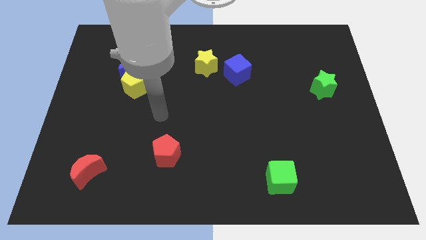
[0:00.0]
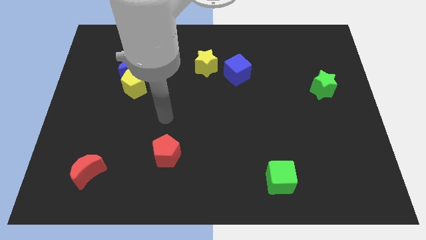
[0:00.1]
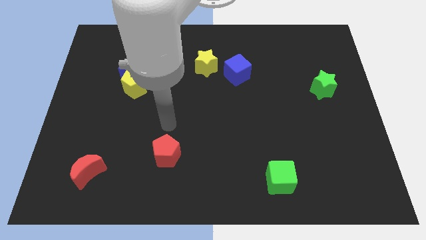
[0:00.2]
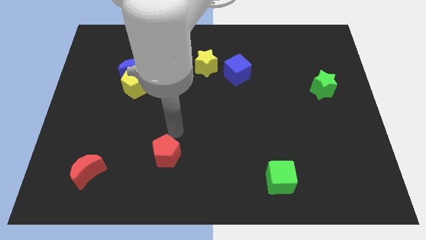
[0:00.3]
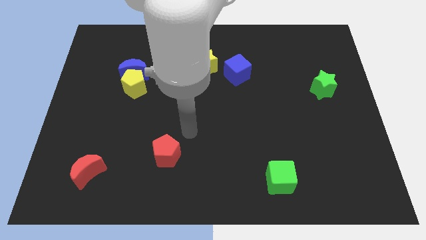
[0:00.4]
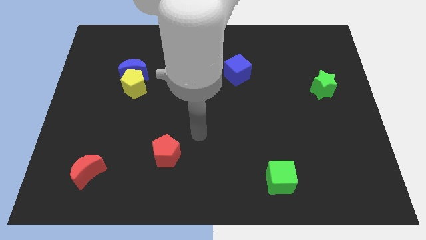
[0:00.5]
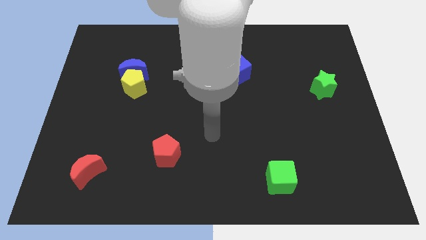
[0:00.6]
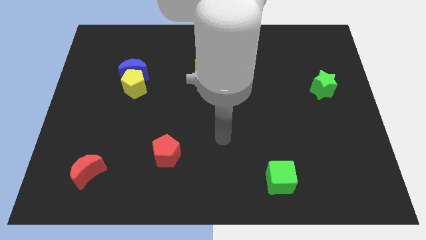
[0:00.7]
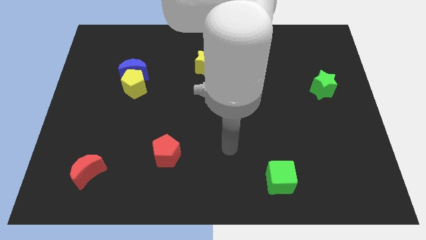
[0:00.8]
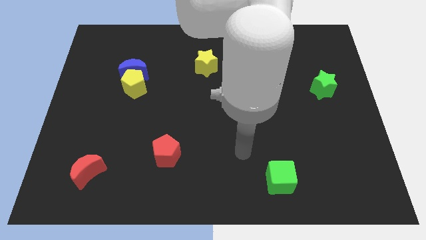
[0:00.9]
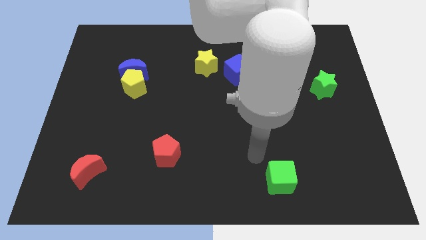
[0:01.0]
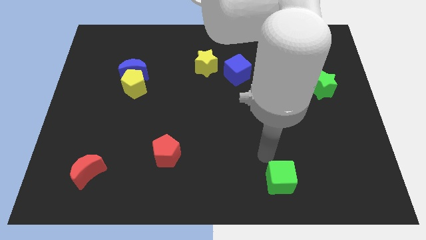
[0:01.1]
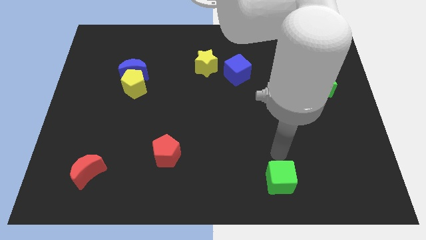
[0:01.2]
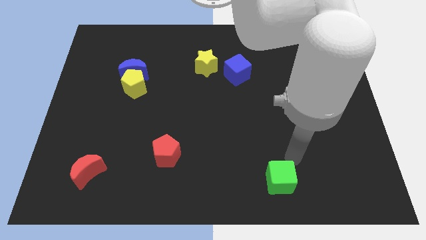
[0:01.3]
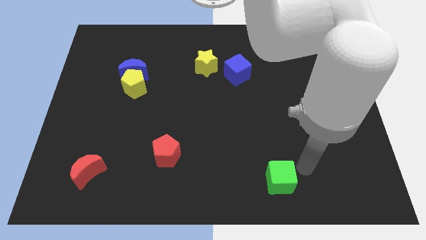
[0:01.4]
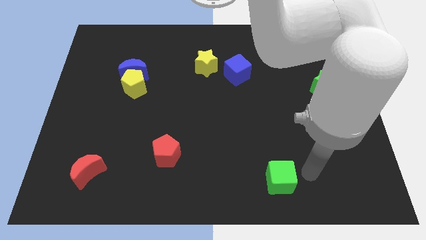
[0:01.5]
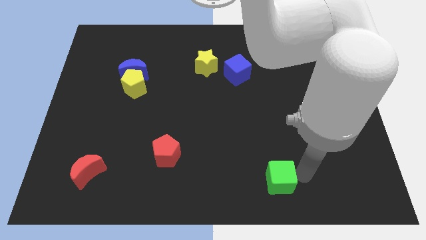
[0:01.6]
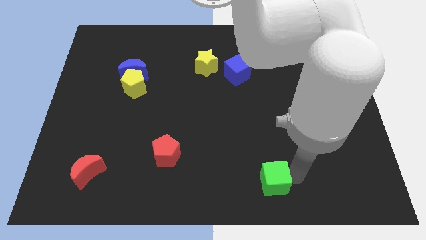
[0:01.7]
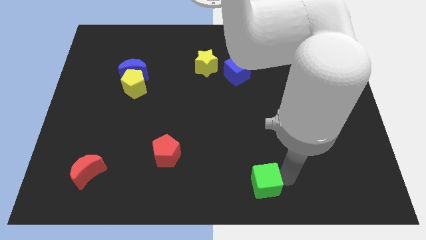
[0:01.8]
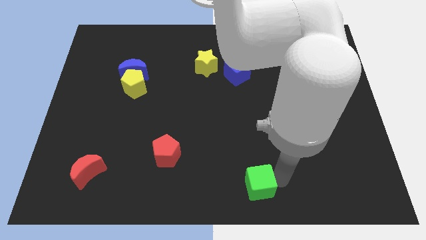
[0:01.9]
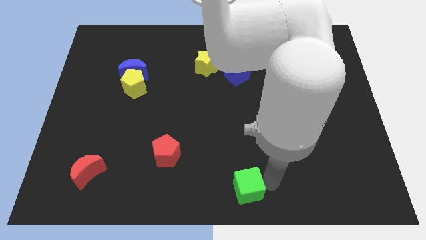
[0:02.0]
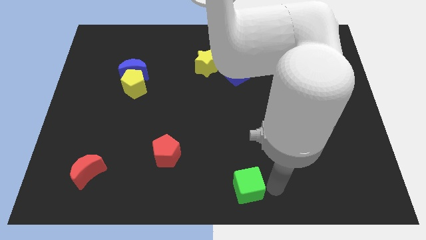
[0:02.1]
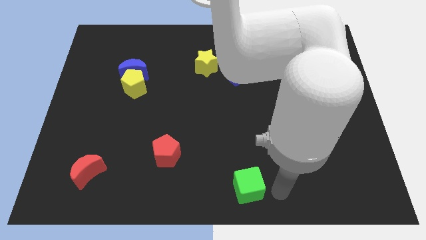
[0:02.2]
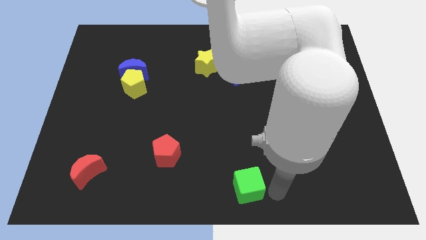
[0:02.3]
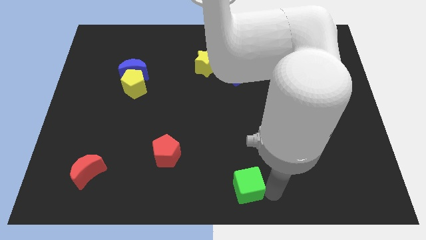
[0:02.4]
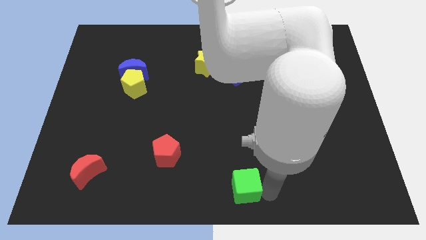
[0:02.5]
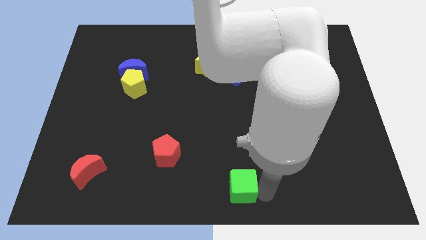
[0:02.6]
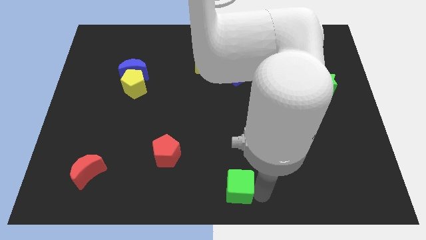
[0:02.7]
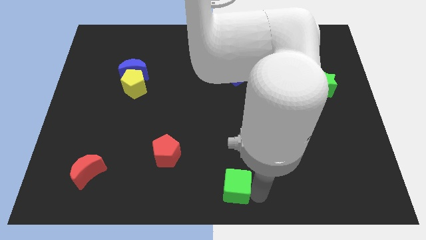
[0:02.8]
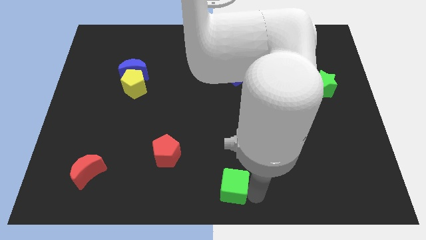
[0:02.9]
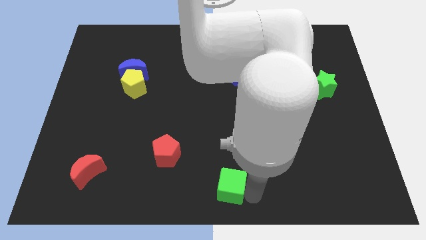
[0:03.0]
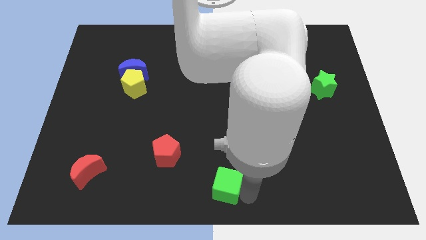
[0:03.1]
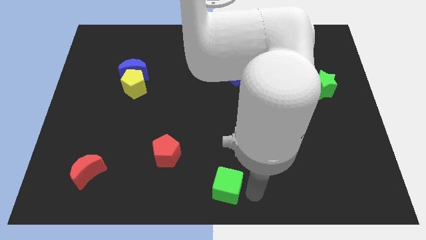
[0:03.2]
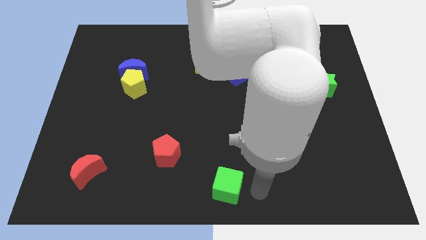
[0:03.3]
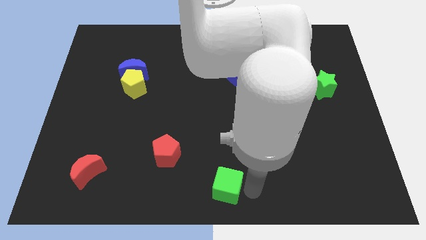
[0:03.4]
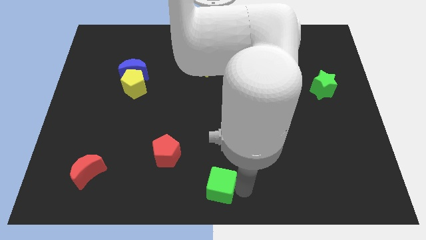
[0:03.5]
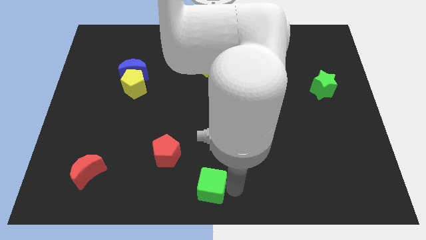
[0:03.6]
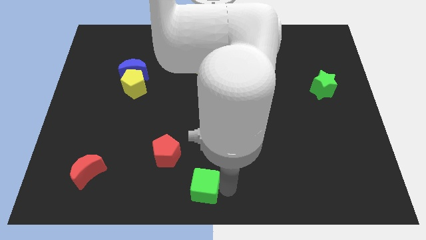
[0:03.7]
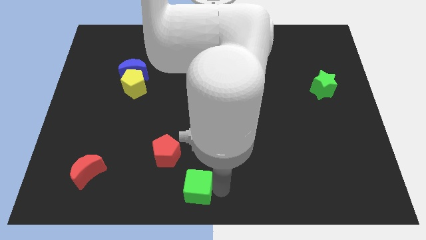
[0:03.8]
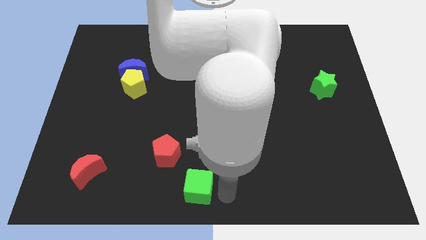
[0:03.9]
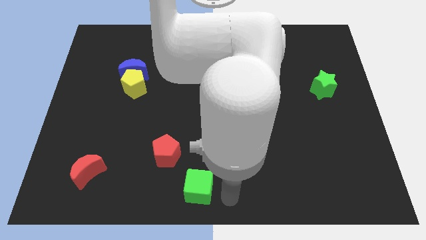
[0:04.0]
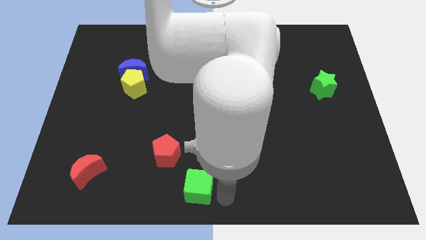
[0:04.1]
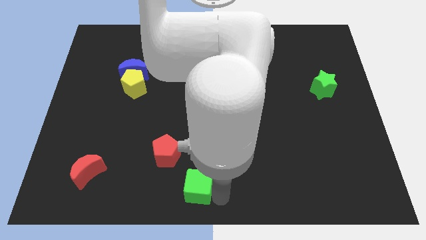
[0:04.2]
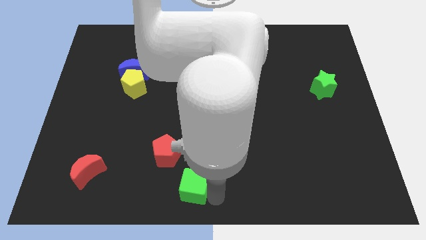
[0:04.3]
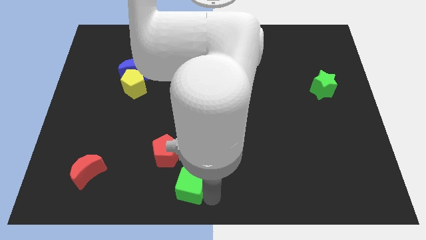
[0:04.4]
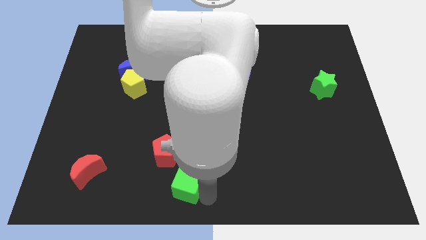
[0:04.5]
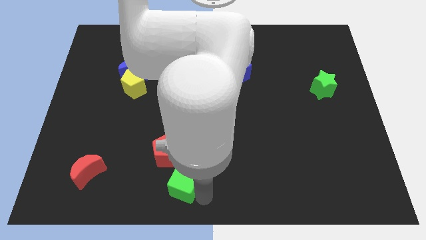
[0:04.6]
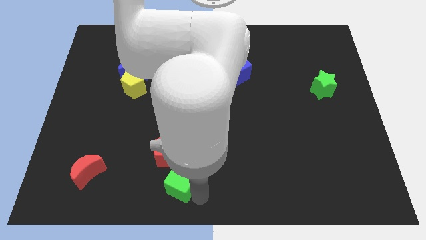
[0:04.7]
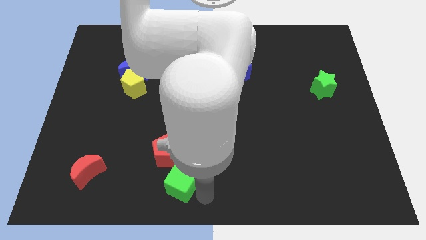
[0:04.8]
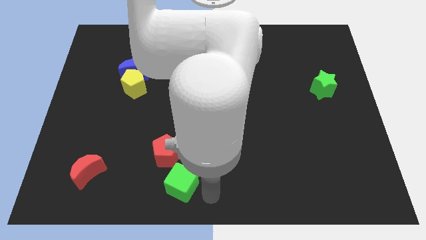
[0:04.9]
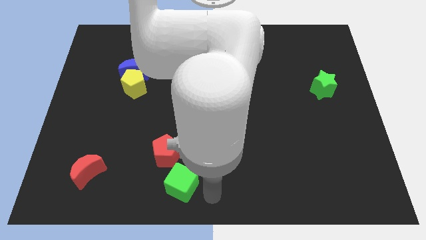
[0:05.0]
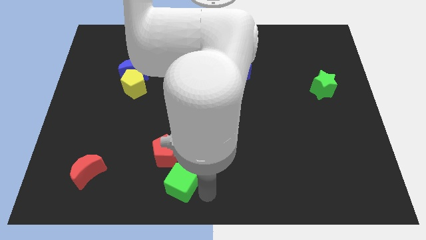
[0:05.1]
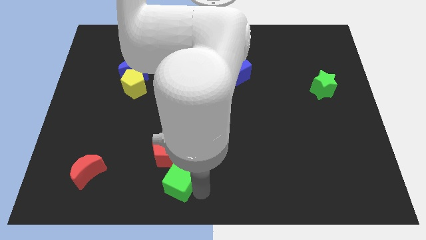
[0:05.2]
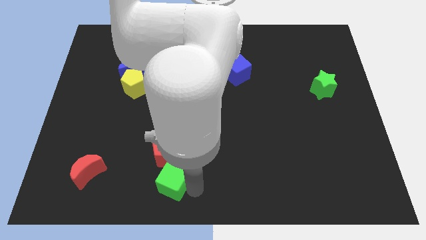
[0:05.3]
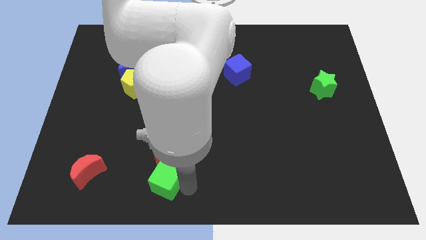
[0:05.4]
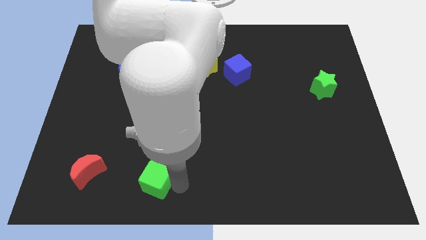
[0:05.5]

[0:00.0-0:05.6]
move the green cube diagonally down and to the left of the red pentagon

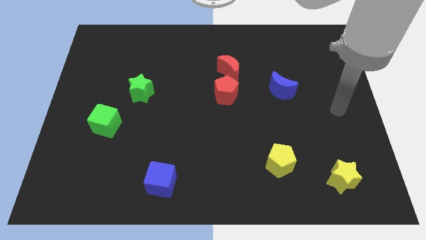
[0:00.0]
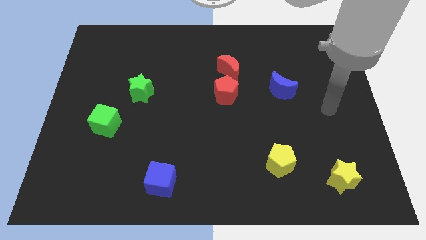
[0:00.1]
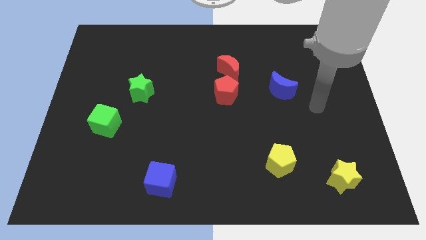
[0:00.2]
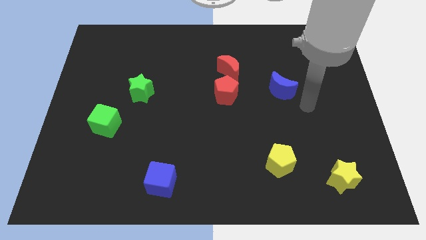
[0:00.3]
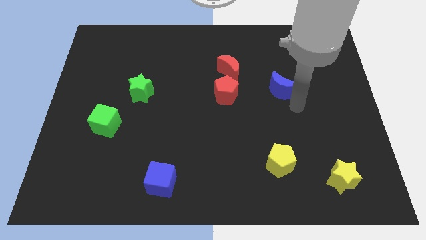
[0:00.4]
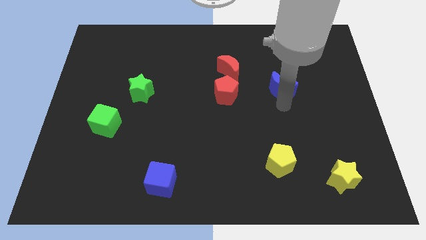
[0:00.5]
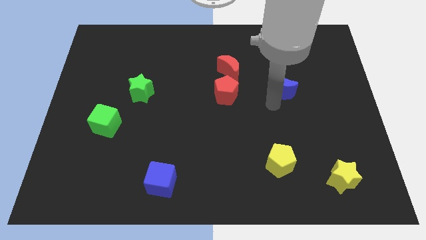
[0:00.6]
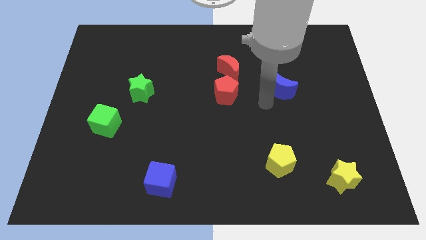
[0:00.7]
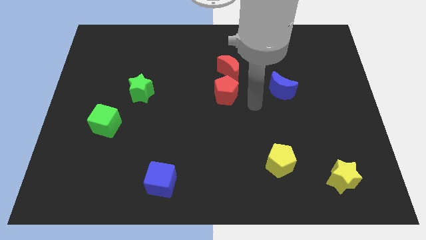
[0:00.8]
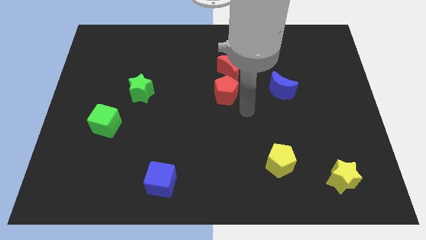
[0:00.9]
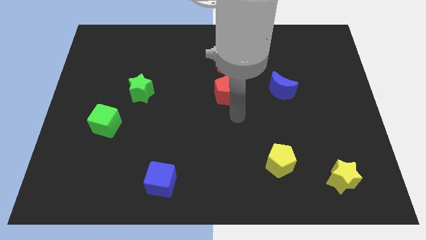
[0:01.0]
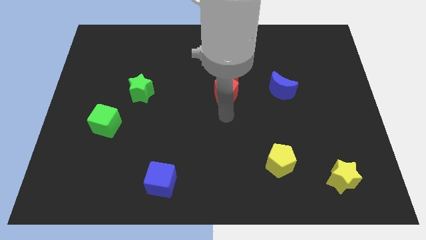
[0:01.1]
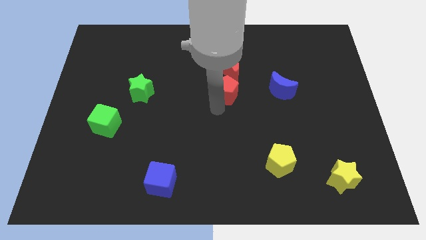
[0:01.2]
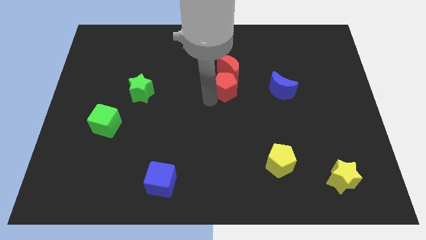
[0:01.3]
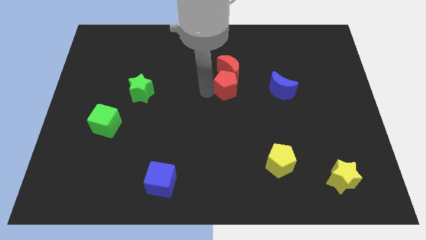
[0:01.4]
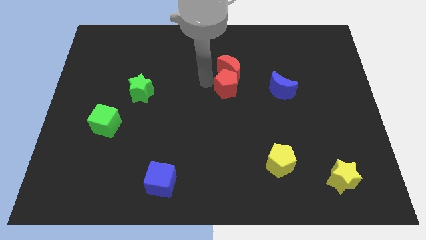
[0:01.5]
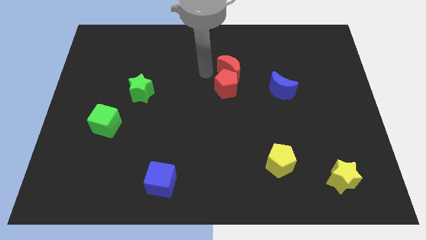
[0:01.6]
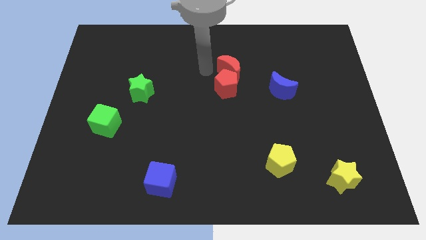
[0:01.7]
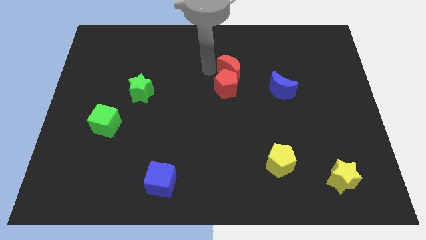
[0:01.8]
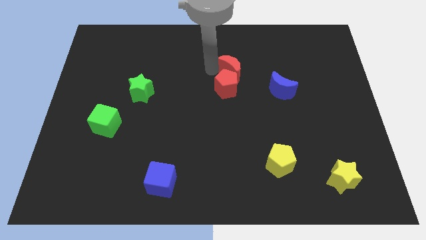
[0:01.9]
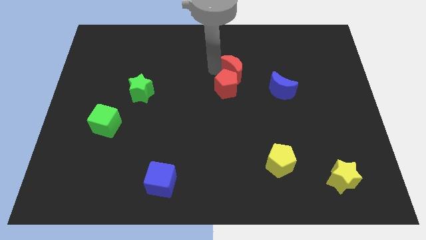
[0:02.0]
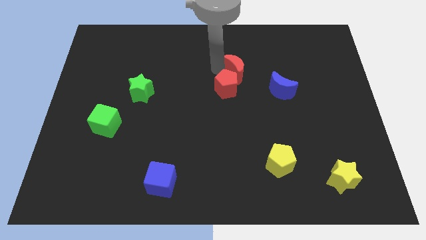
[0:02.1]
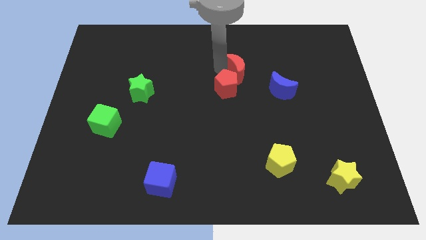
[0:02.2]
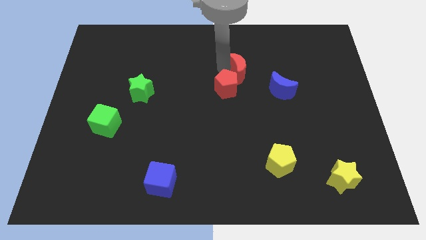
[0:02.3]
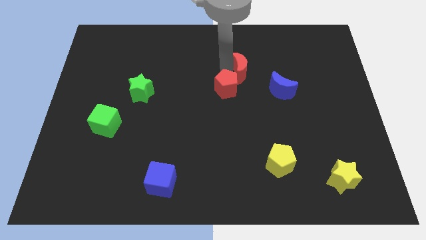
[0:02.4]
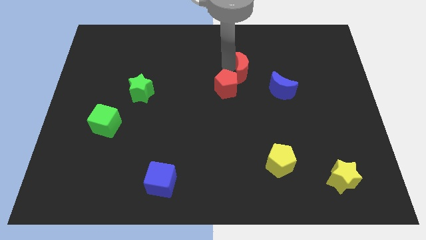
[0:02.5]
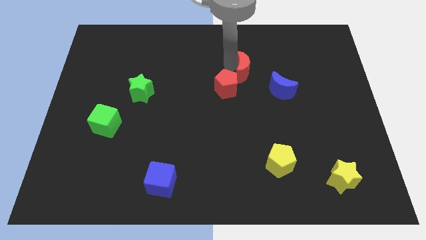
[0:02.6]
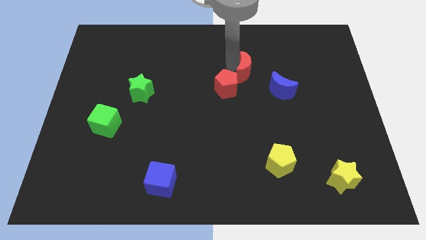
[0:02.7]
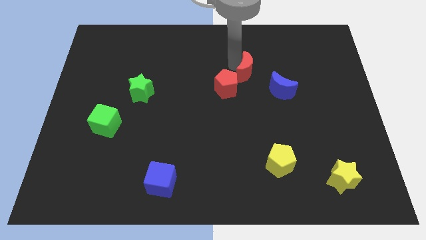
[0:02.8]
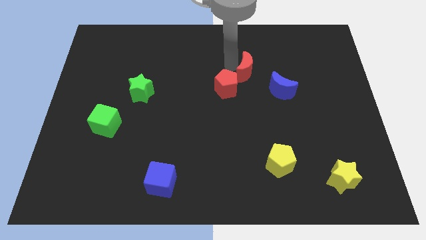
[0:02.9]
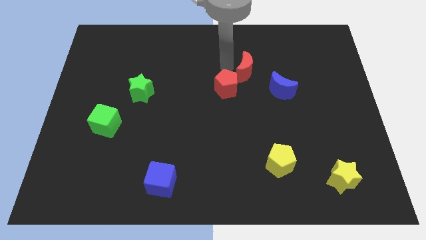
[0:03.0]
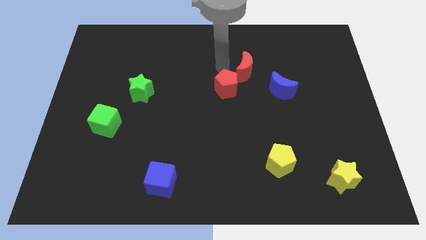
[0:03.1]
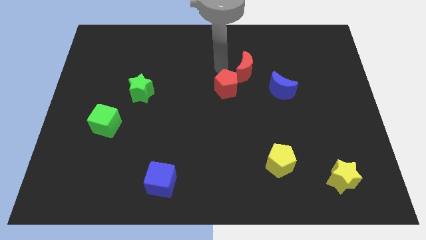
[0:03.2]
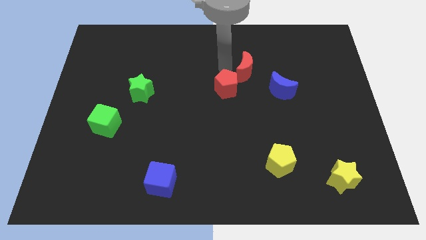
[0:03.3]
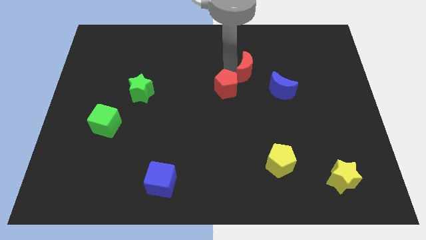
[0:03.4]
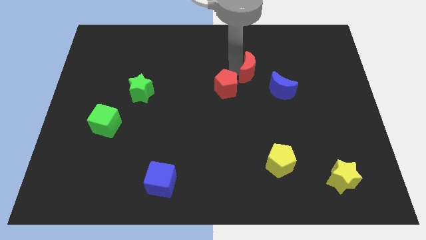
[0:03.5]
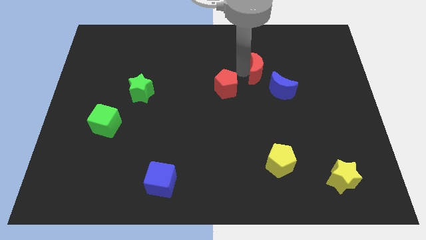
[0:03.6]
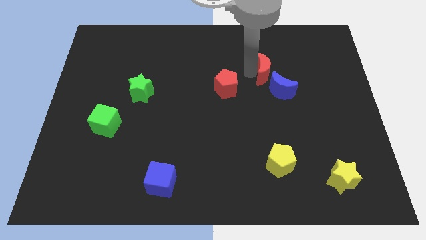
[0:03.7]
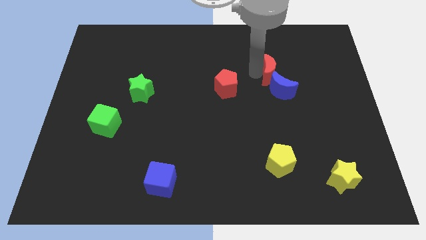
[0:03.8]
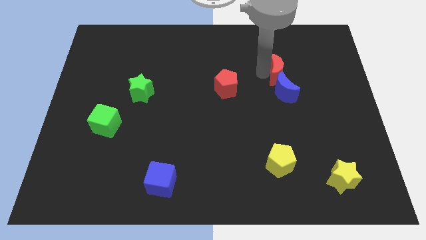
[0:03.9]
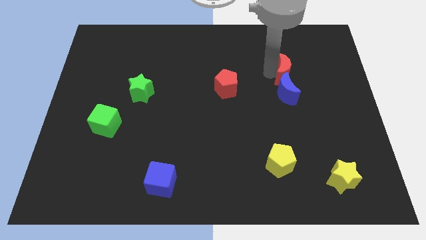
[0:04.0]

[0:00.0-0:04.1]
slide the red moon to the top right of the blue moon
